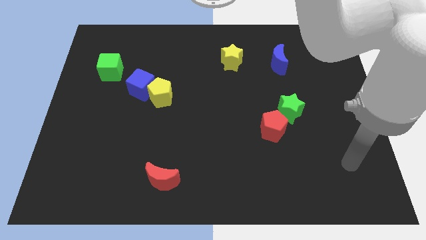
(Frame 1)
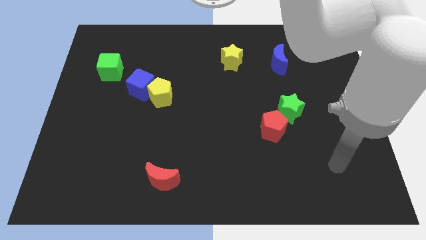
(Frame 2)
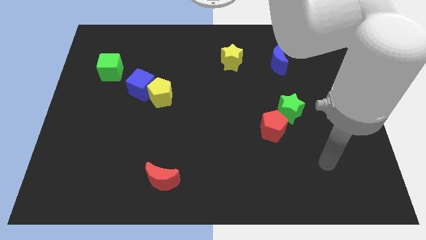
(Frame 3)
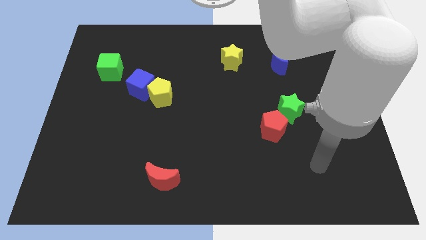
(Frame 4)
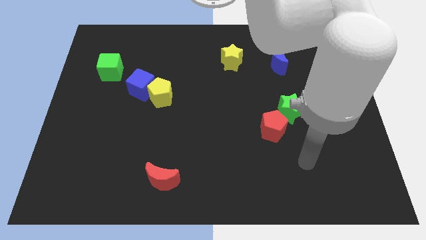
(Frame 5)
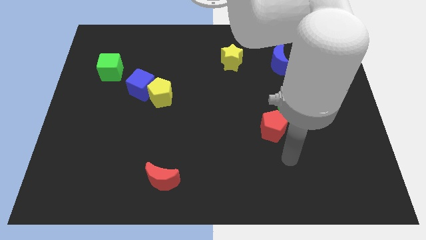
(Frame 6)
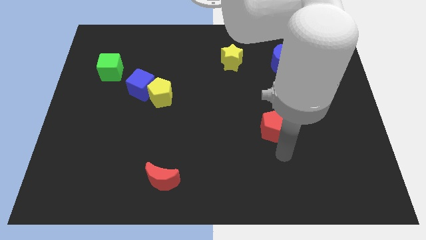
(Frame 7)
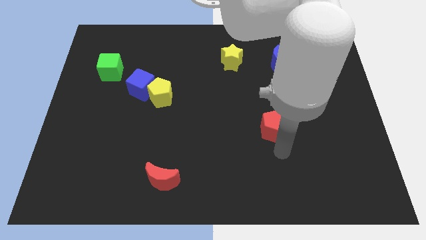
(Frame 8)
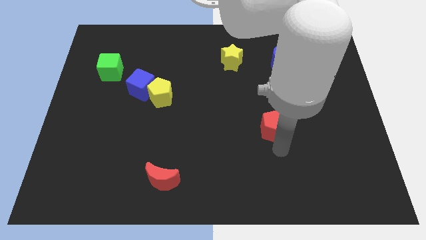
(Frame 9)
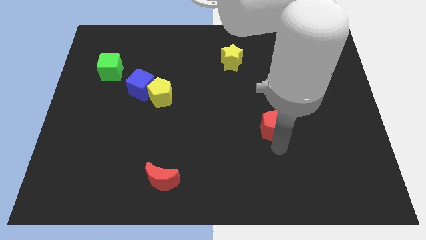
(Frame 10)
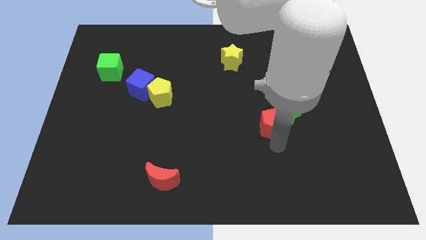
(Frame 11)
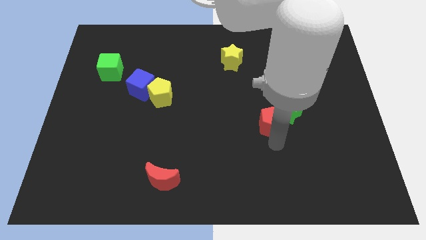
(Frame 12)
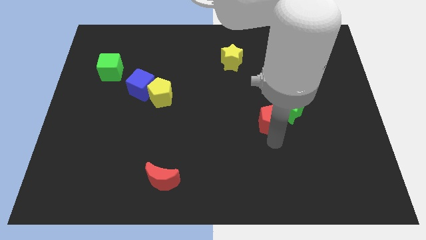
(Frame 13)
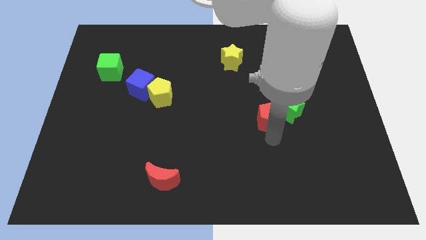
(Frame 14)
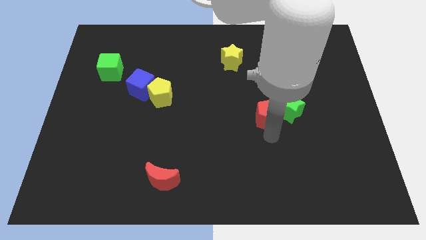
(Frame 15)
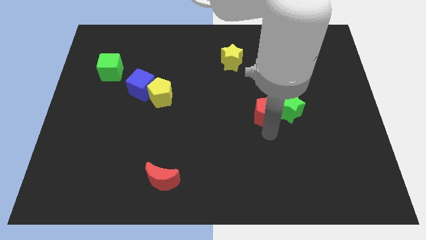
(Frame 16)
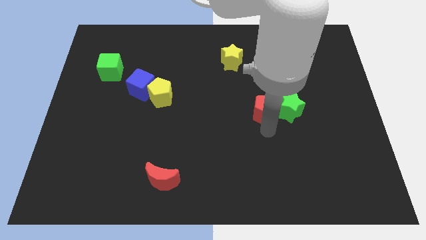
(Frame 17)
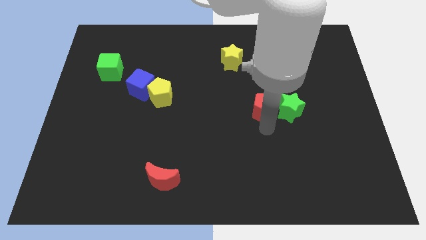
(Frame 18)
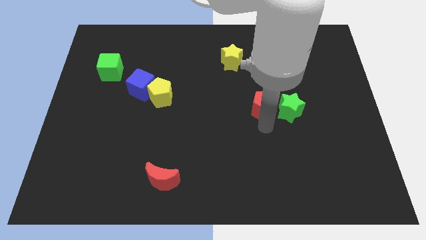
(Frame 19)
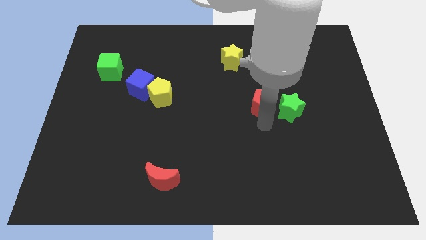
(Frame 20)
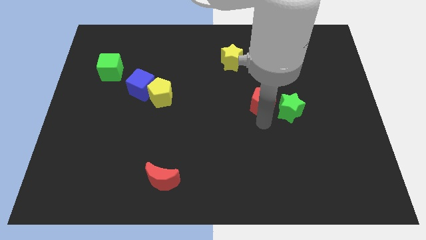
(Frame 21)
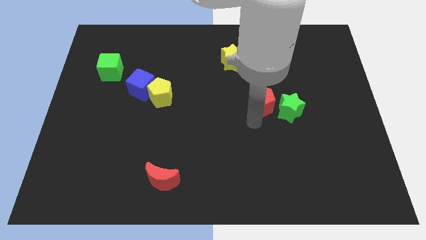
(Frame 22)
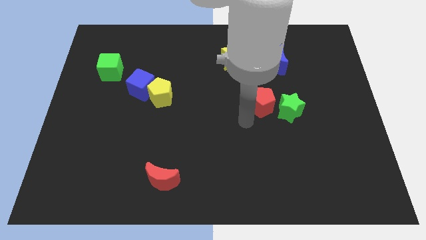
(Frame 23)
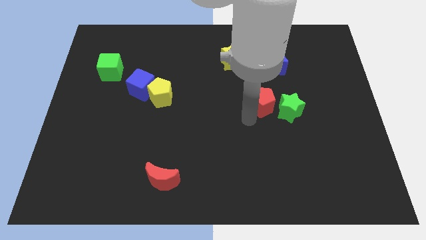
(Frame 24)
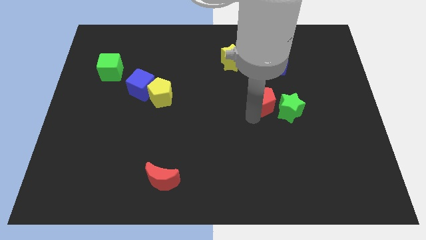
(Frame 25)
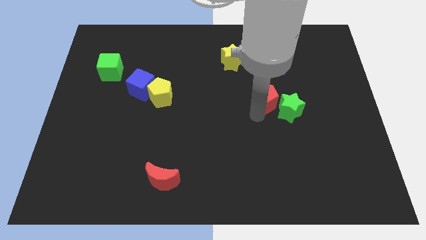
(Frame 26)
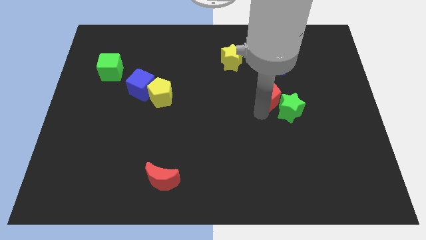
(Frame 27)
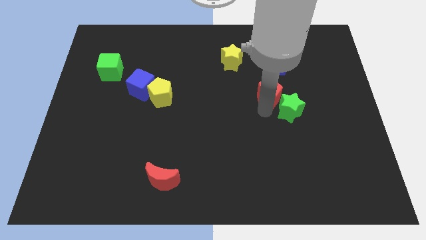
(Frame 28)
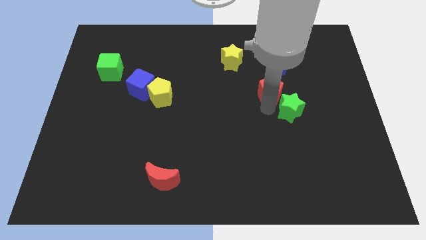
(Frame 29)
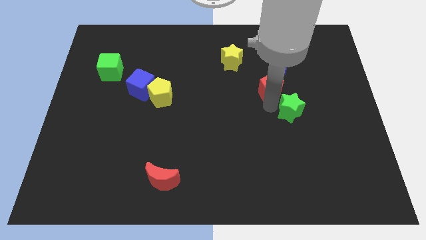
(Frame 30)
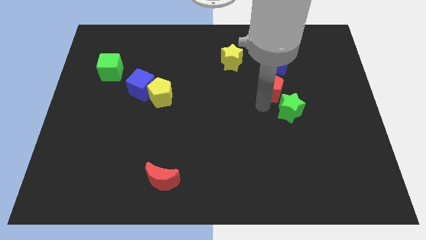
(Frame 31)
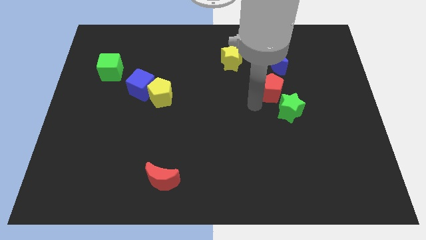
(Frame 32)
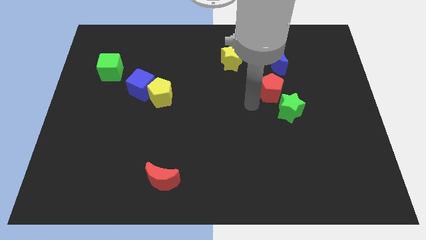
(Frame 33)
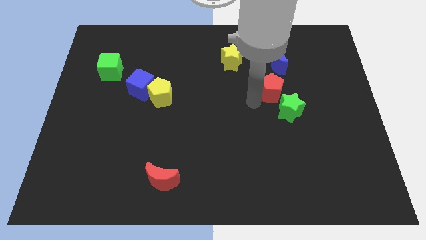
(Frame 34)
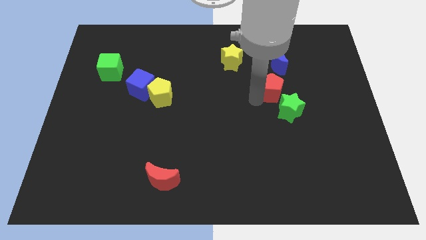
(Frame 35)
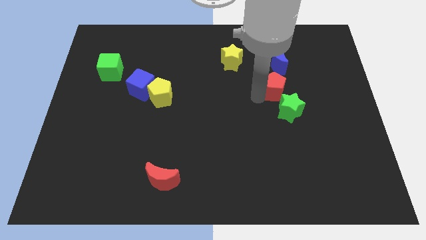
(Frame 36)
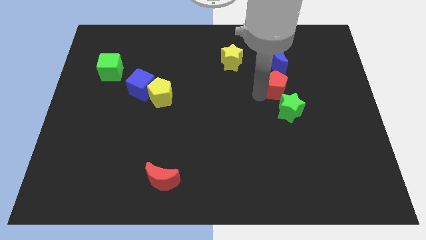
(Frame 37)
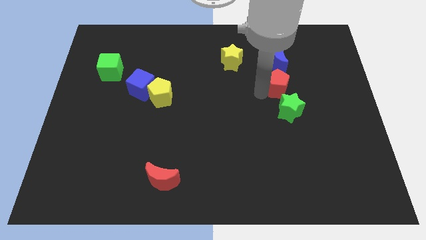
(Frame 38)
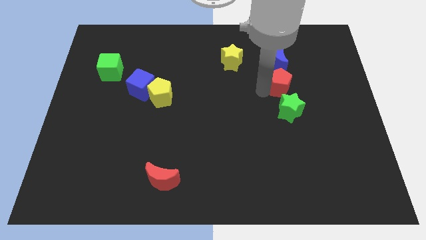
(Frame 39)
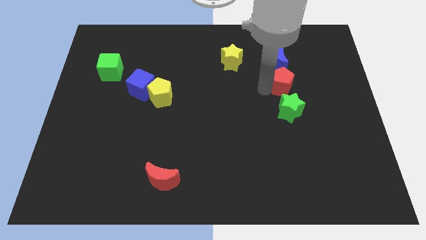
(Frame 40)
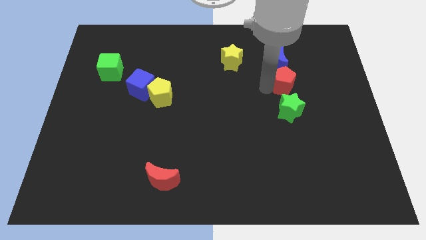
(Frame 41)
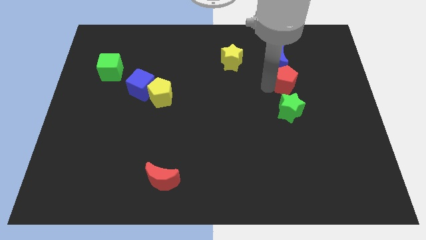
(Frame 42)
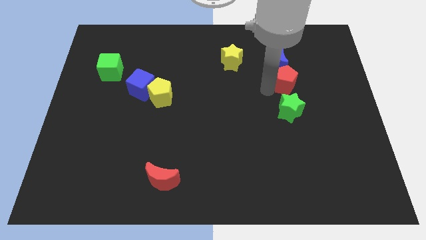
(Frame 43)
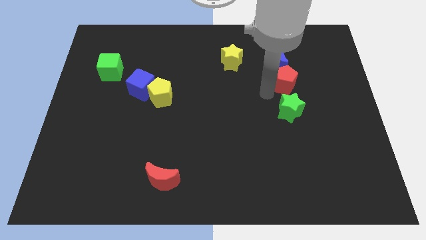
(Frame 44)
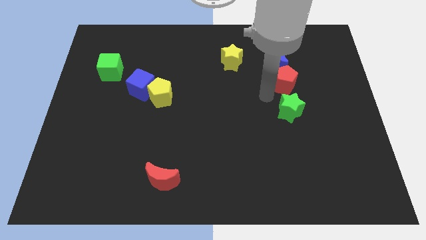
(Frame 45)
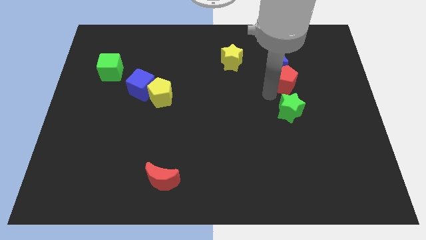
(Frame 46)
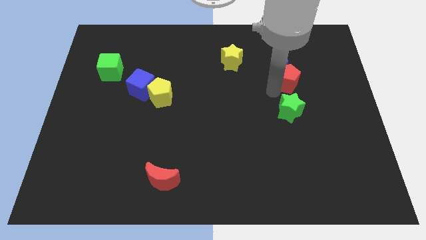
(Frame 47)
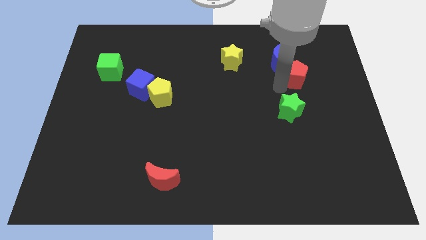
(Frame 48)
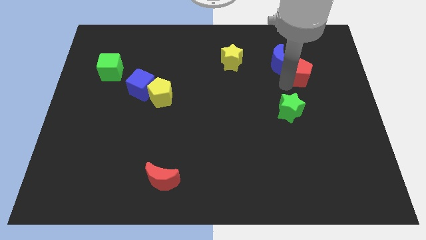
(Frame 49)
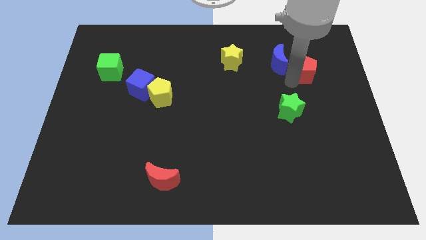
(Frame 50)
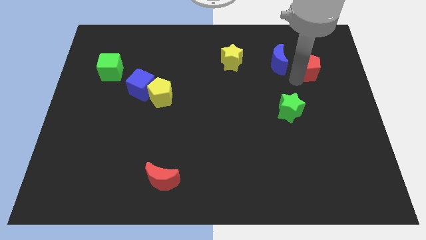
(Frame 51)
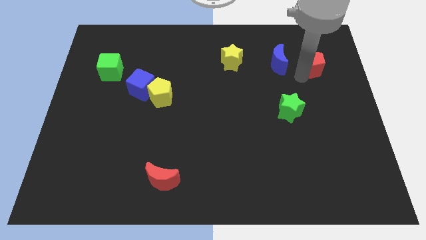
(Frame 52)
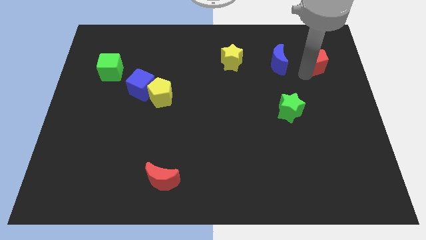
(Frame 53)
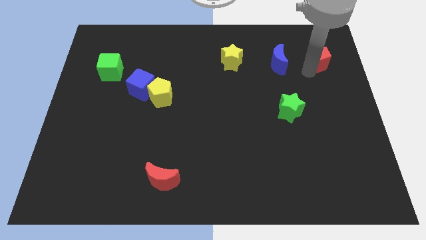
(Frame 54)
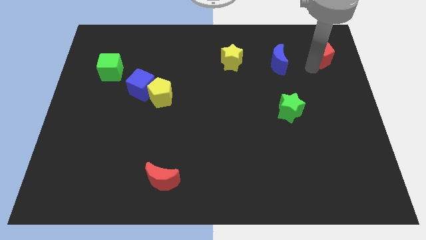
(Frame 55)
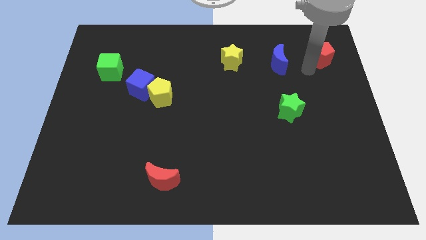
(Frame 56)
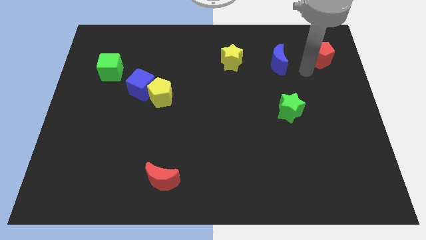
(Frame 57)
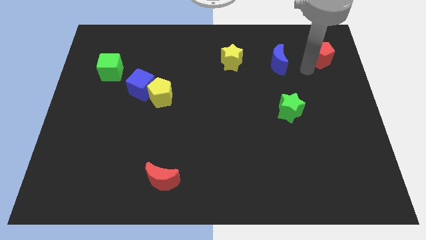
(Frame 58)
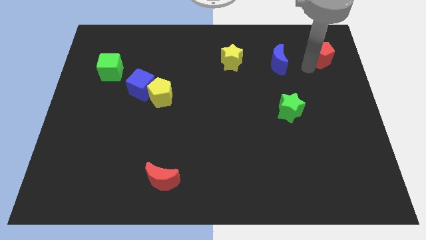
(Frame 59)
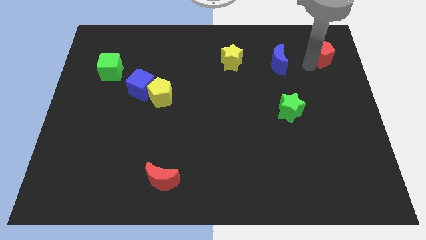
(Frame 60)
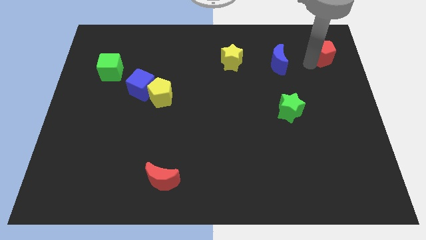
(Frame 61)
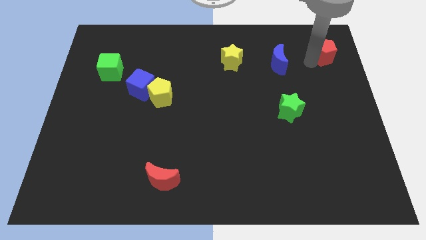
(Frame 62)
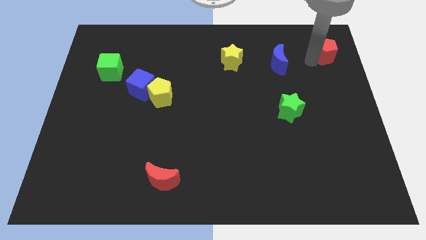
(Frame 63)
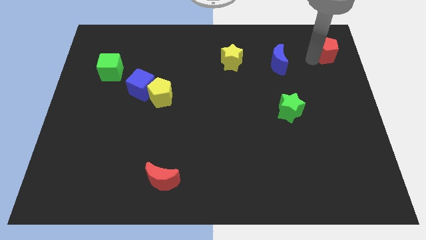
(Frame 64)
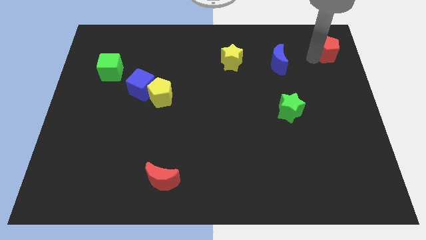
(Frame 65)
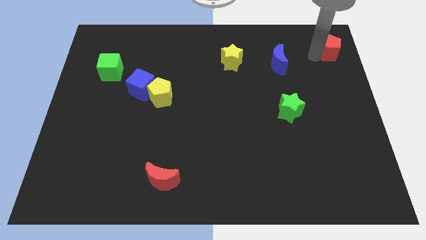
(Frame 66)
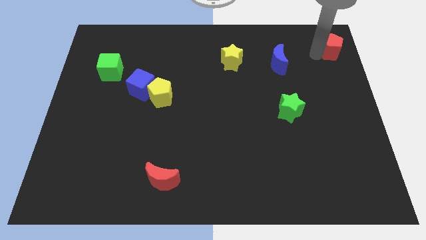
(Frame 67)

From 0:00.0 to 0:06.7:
slide the red pentagon to the top right corner
